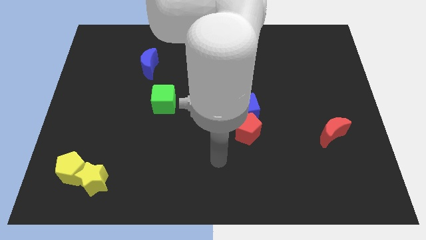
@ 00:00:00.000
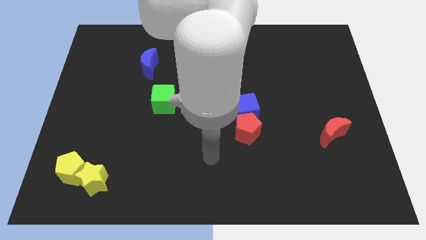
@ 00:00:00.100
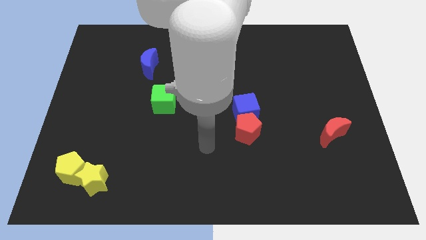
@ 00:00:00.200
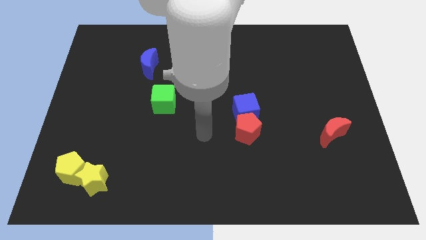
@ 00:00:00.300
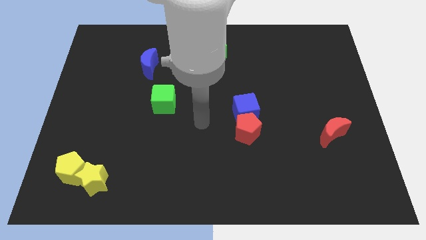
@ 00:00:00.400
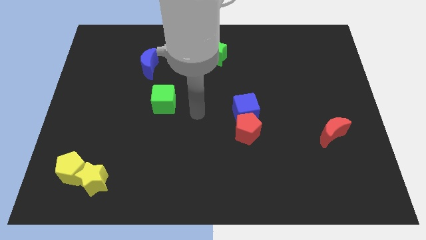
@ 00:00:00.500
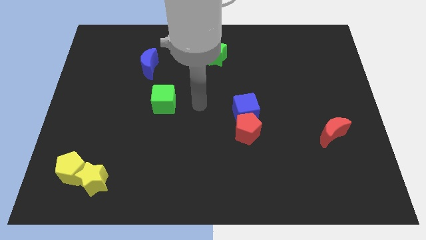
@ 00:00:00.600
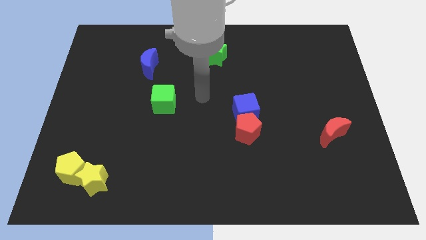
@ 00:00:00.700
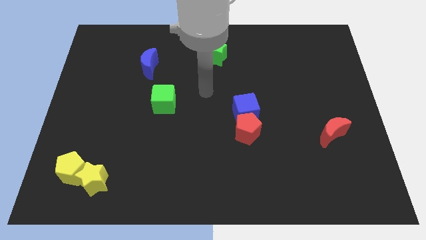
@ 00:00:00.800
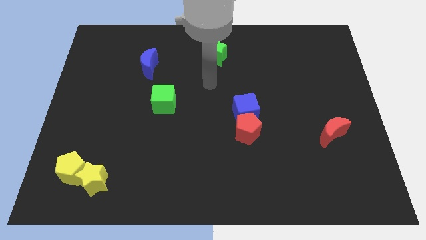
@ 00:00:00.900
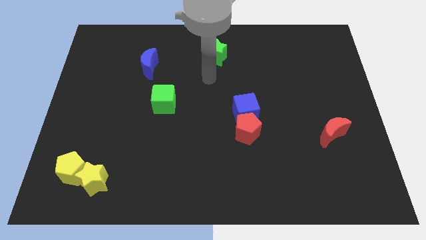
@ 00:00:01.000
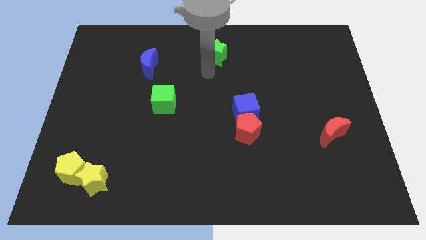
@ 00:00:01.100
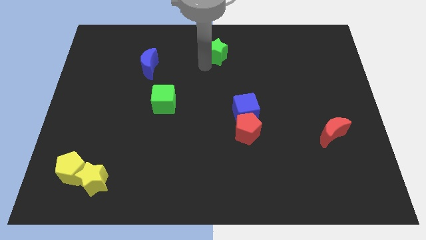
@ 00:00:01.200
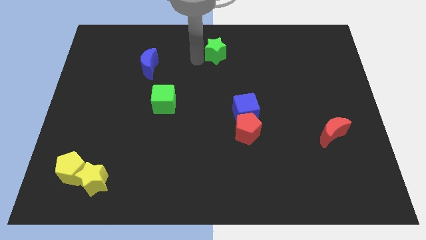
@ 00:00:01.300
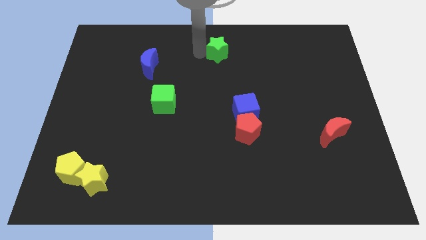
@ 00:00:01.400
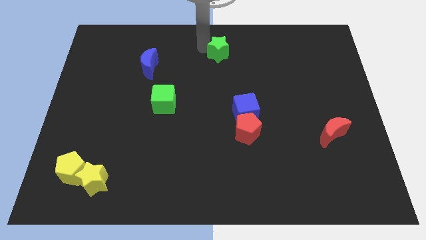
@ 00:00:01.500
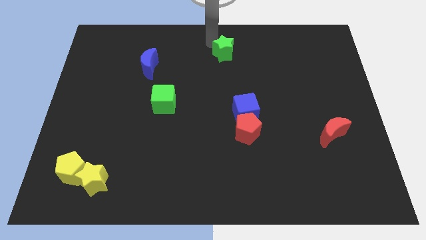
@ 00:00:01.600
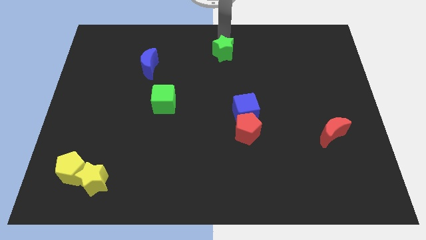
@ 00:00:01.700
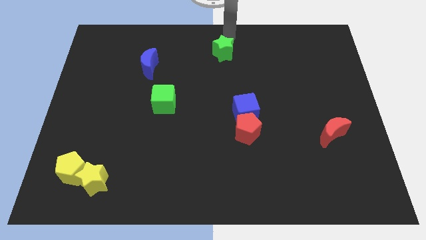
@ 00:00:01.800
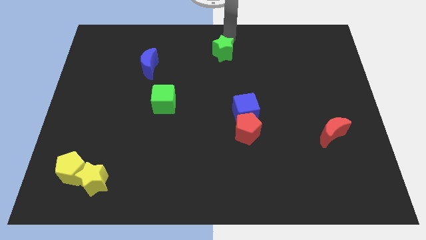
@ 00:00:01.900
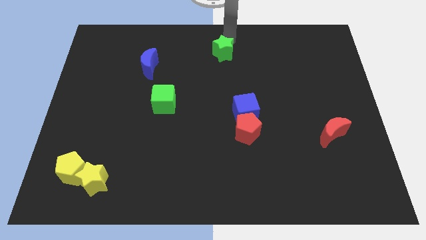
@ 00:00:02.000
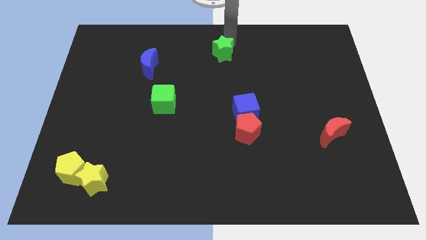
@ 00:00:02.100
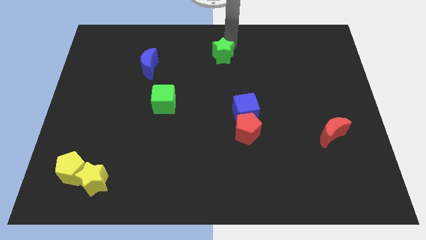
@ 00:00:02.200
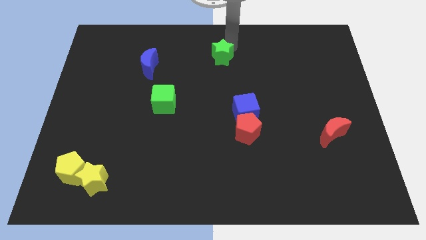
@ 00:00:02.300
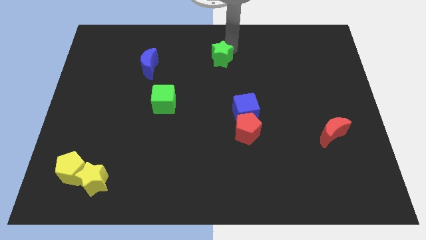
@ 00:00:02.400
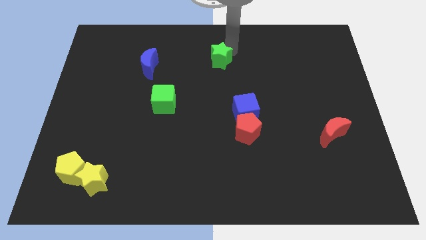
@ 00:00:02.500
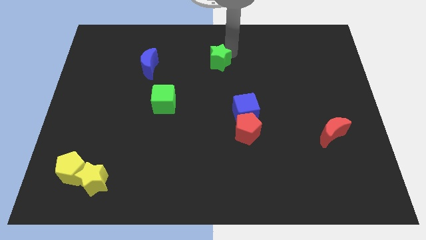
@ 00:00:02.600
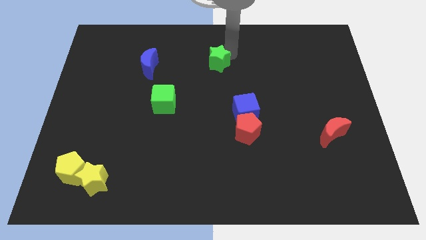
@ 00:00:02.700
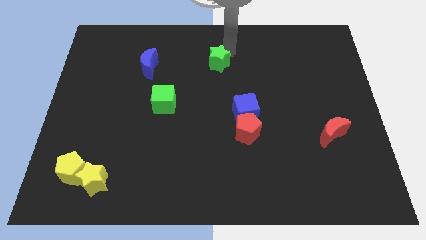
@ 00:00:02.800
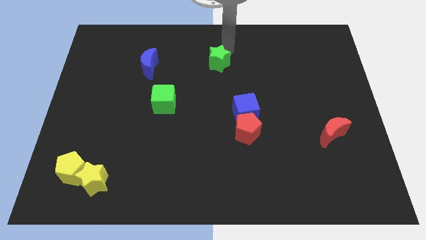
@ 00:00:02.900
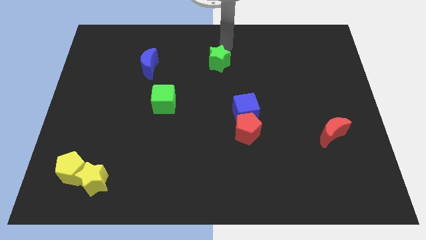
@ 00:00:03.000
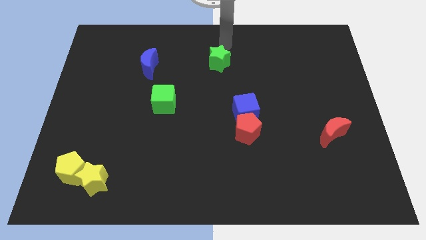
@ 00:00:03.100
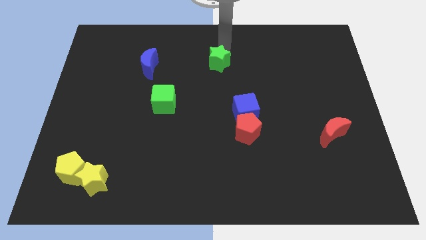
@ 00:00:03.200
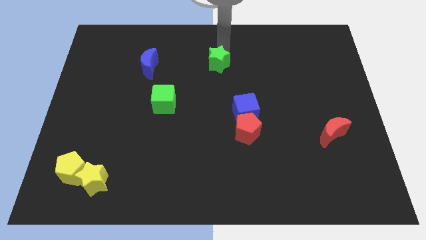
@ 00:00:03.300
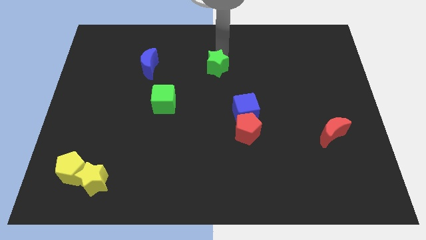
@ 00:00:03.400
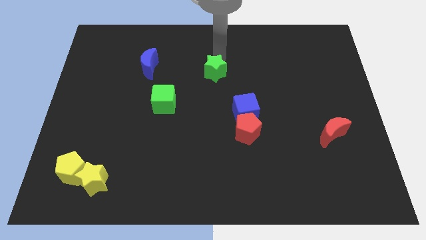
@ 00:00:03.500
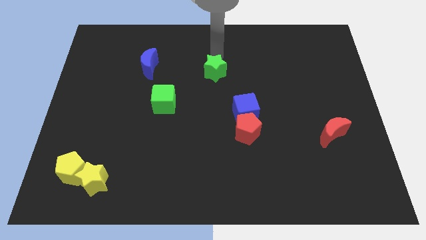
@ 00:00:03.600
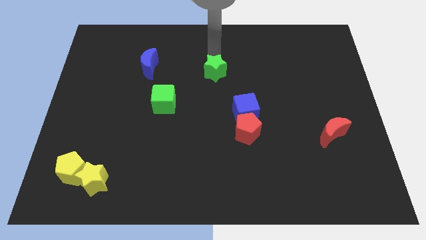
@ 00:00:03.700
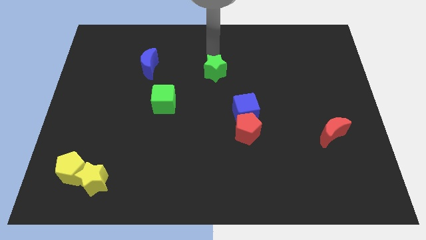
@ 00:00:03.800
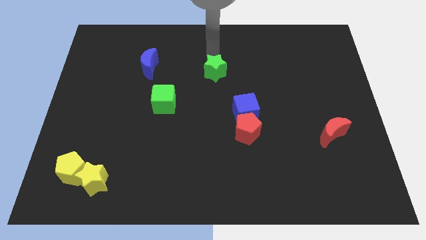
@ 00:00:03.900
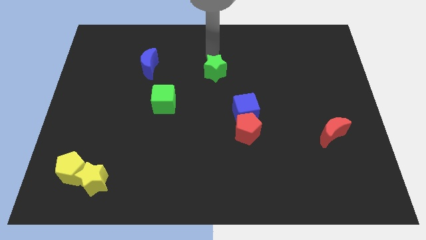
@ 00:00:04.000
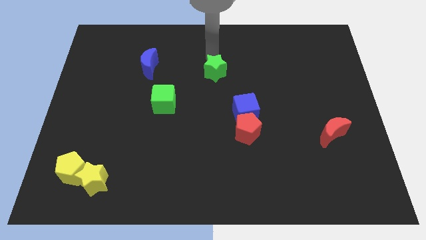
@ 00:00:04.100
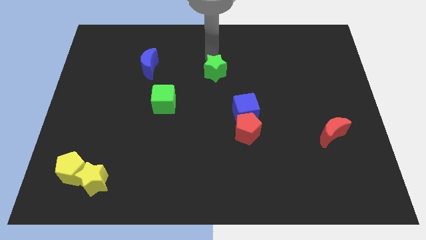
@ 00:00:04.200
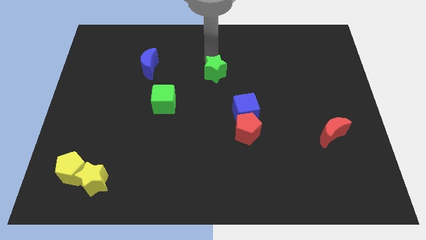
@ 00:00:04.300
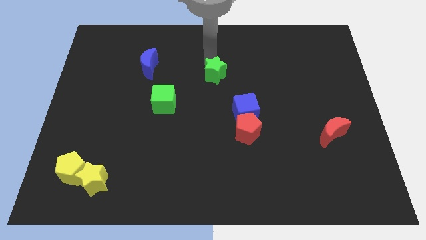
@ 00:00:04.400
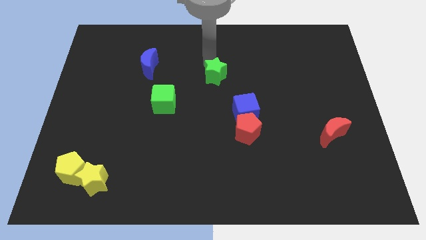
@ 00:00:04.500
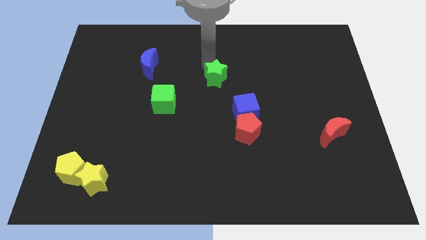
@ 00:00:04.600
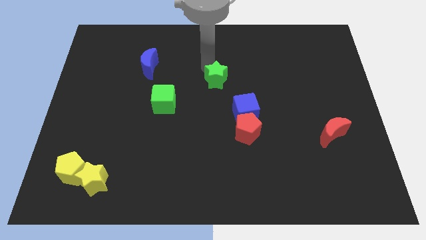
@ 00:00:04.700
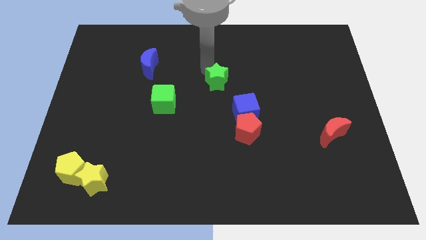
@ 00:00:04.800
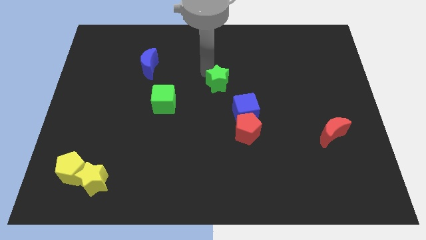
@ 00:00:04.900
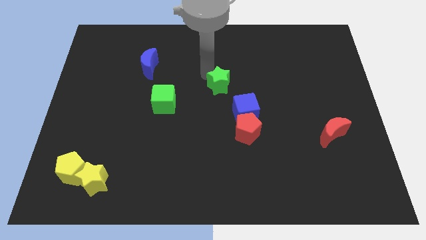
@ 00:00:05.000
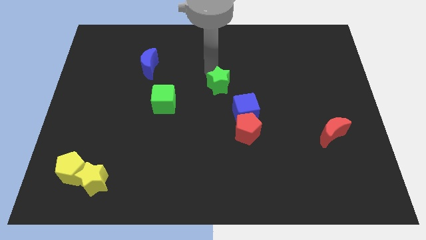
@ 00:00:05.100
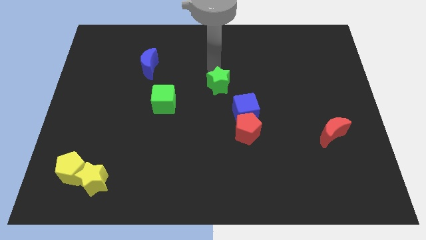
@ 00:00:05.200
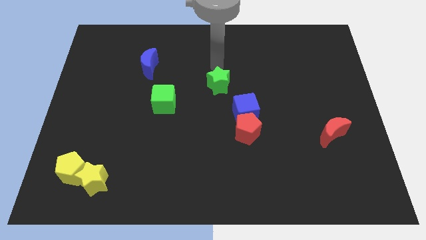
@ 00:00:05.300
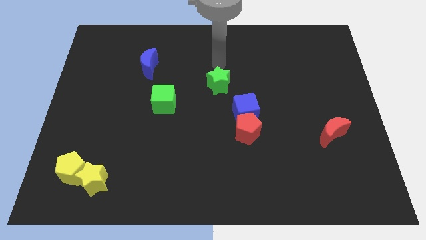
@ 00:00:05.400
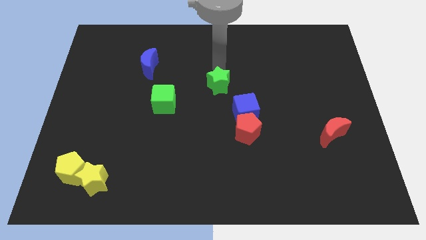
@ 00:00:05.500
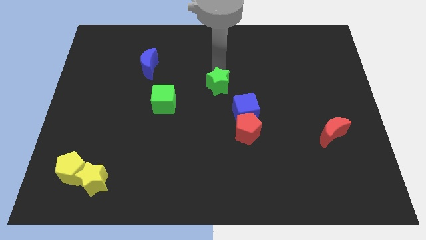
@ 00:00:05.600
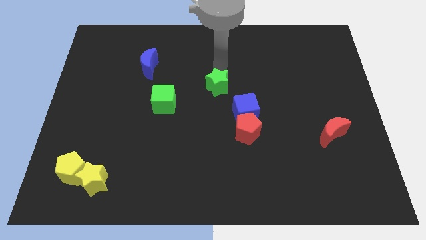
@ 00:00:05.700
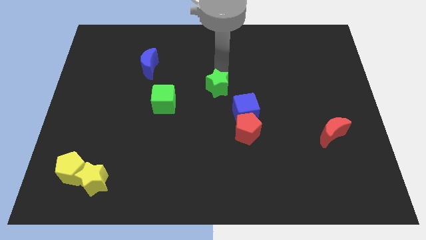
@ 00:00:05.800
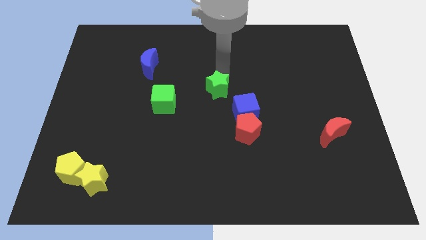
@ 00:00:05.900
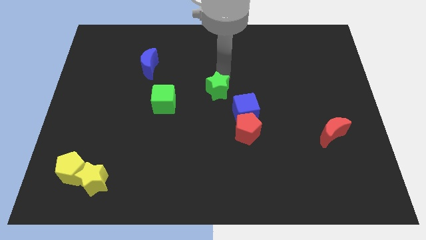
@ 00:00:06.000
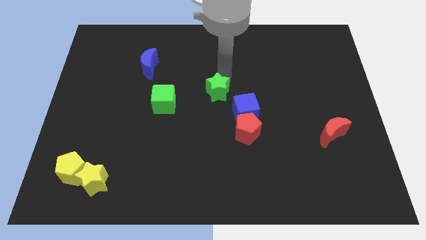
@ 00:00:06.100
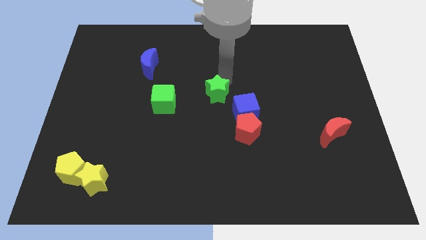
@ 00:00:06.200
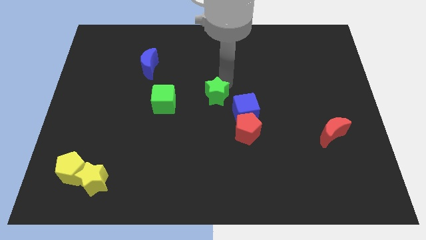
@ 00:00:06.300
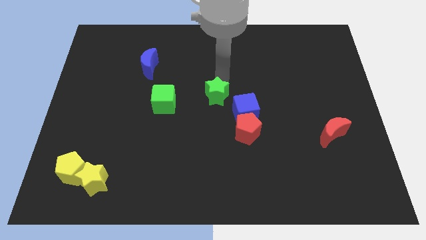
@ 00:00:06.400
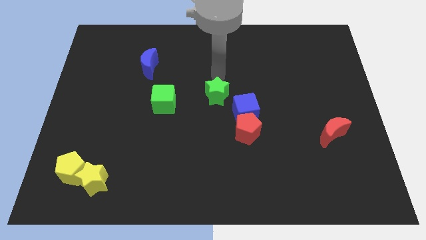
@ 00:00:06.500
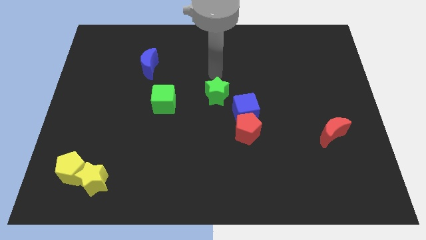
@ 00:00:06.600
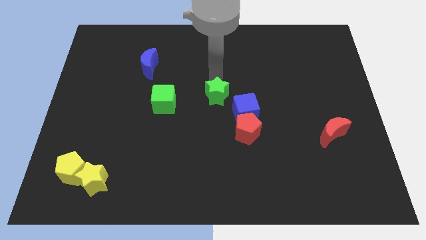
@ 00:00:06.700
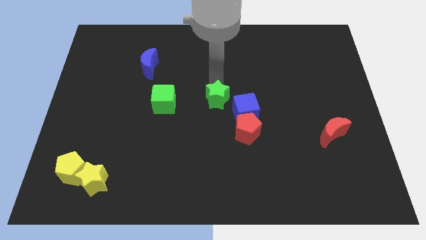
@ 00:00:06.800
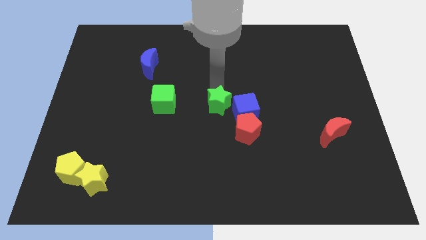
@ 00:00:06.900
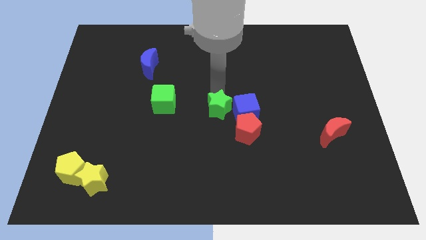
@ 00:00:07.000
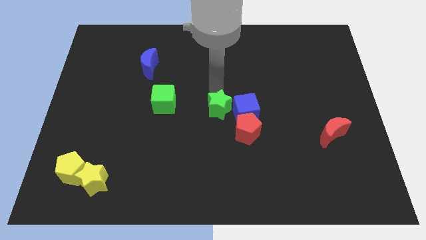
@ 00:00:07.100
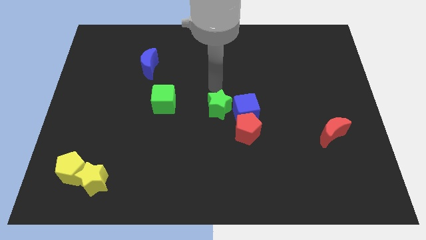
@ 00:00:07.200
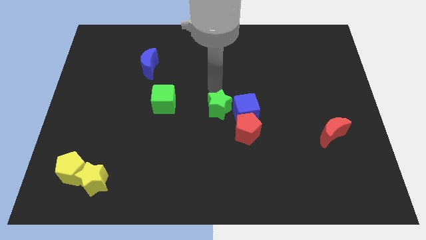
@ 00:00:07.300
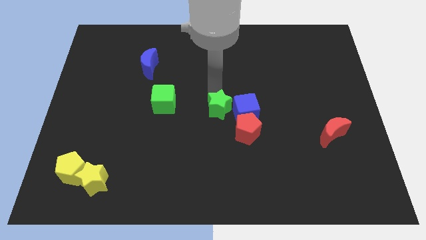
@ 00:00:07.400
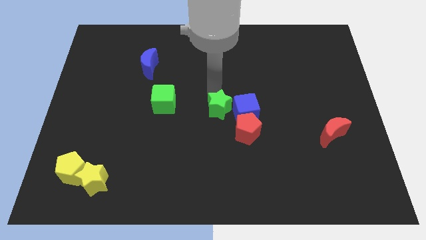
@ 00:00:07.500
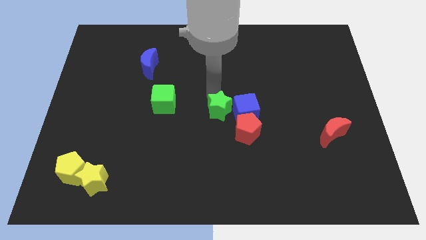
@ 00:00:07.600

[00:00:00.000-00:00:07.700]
slide the green star diagonally down and to the left of the blue cube

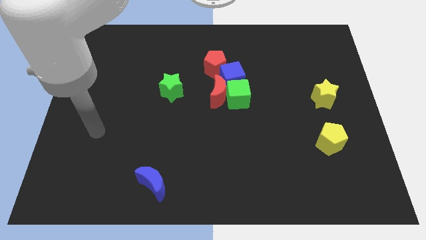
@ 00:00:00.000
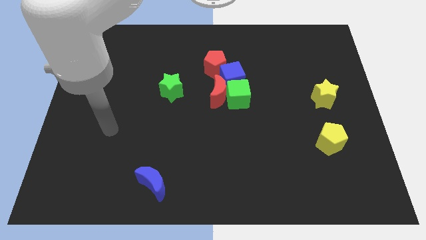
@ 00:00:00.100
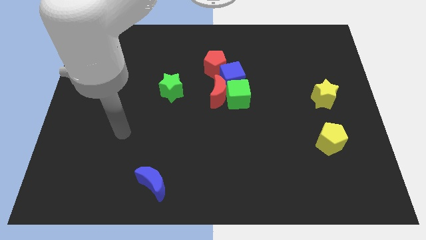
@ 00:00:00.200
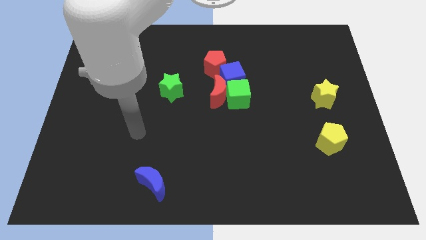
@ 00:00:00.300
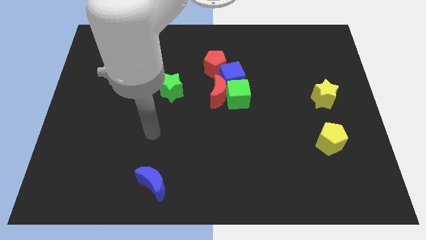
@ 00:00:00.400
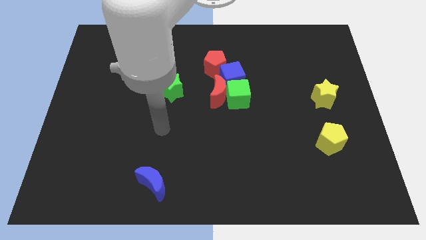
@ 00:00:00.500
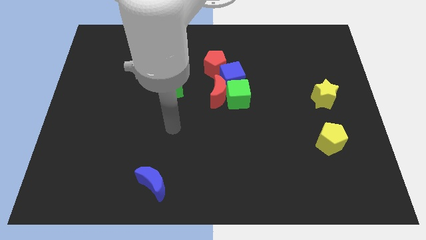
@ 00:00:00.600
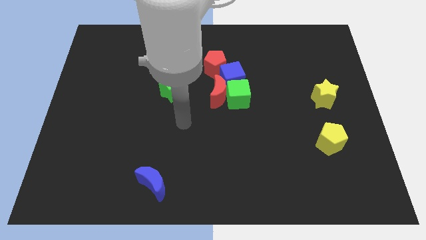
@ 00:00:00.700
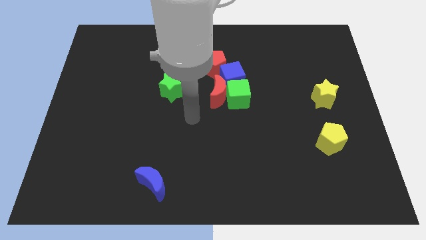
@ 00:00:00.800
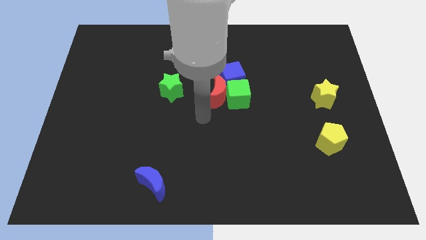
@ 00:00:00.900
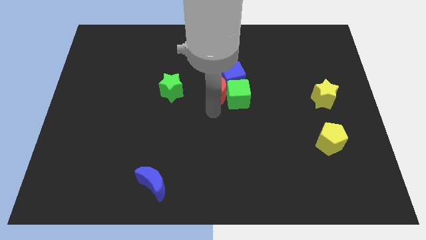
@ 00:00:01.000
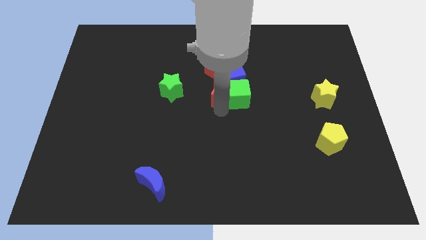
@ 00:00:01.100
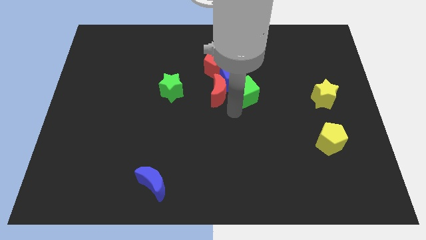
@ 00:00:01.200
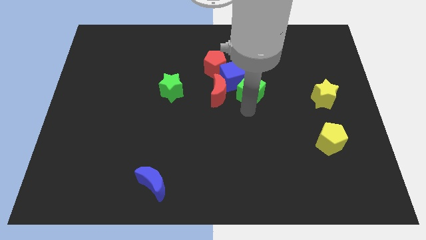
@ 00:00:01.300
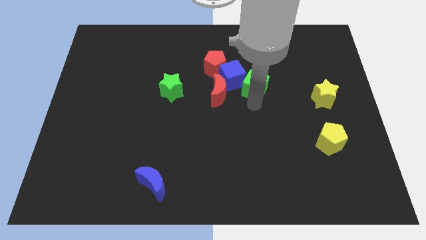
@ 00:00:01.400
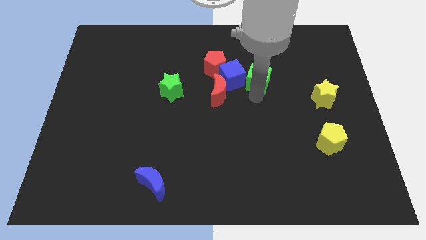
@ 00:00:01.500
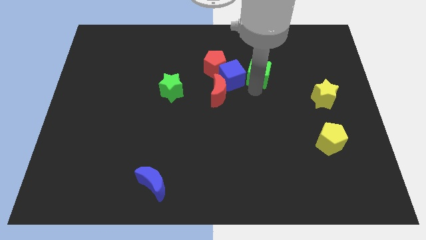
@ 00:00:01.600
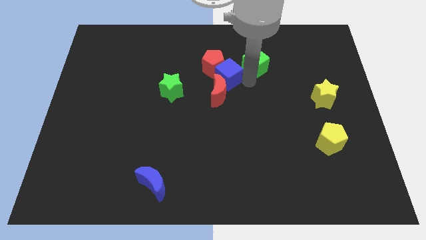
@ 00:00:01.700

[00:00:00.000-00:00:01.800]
move the red pentagon diagonally up and to the right of the green star
